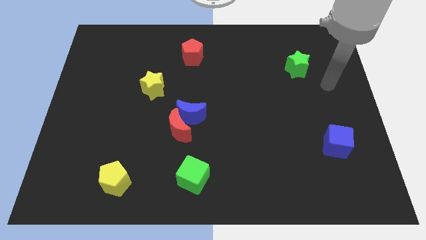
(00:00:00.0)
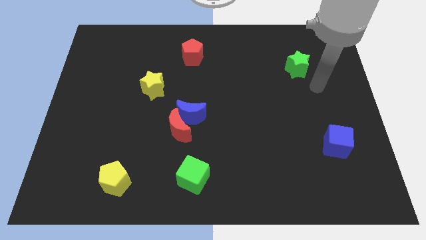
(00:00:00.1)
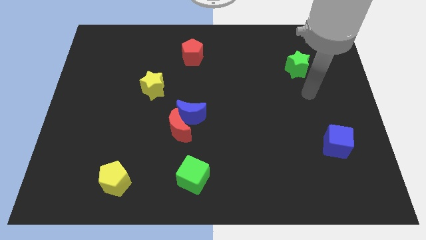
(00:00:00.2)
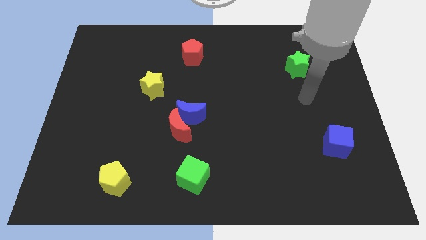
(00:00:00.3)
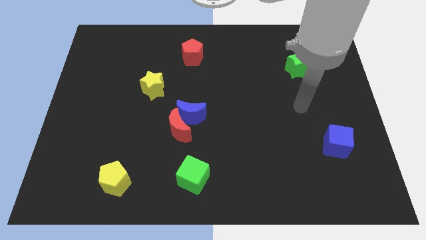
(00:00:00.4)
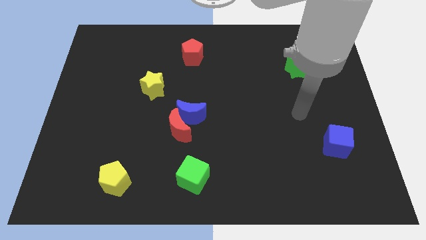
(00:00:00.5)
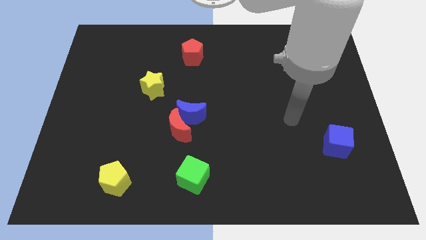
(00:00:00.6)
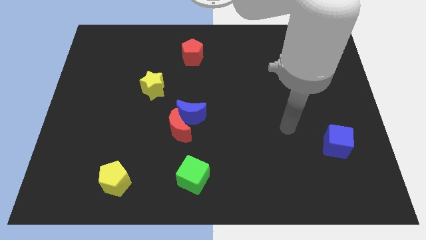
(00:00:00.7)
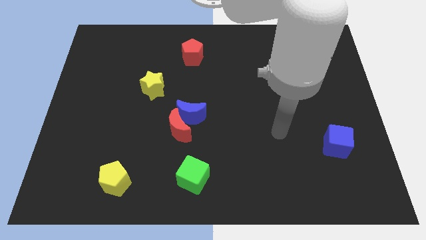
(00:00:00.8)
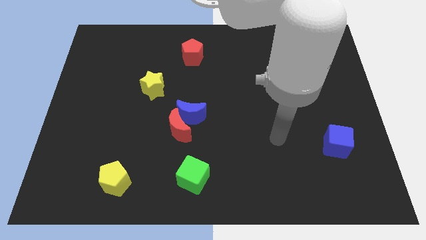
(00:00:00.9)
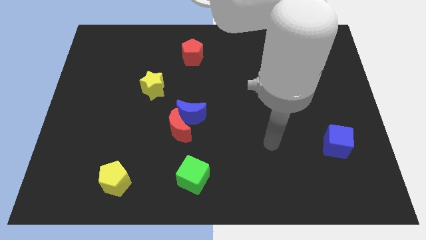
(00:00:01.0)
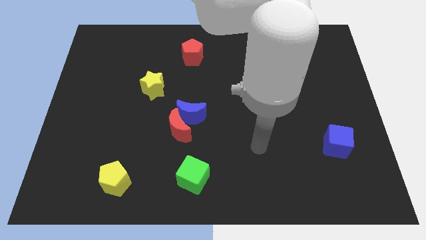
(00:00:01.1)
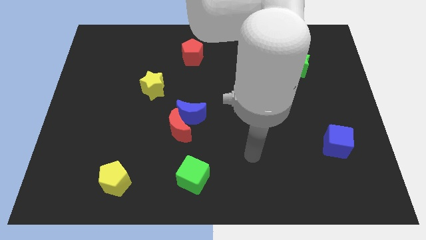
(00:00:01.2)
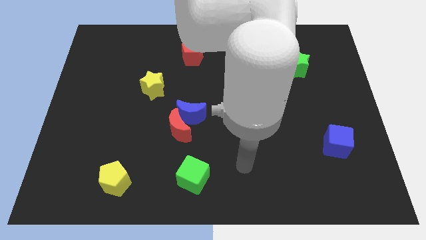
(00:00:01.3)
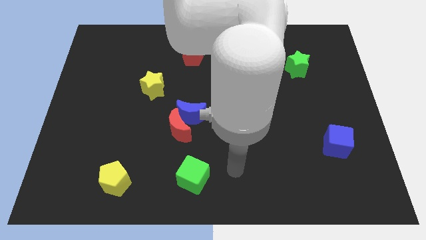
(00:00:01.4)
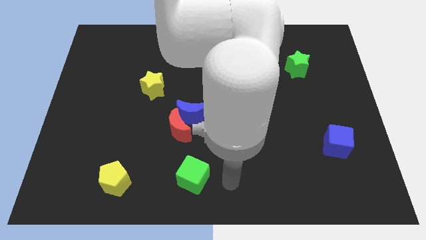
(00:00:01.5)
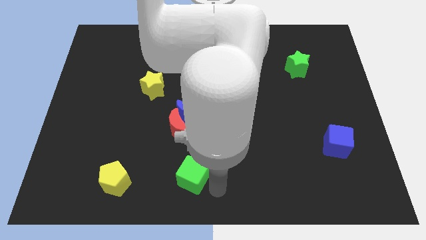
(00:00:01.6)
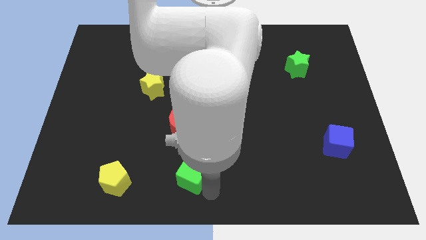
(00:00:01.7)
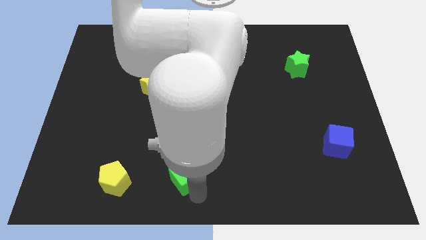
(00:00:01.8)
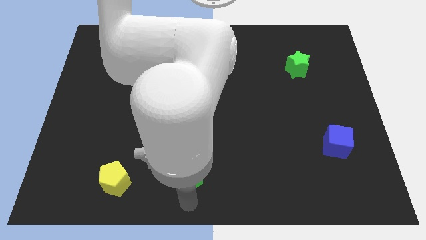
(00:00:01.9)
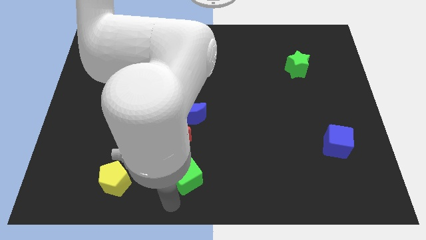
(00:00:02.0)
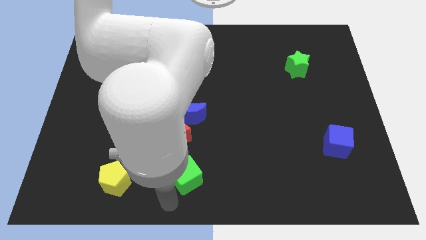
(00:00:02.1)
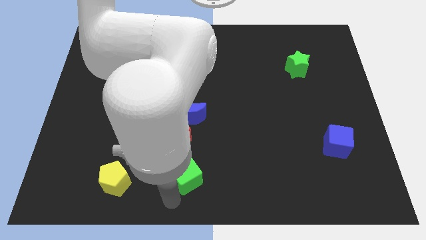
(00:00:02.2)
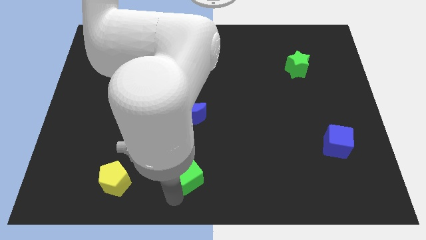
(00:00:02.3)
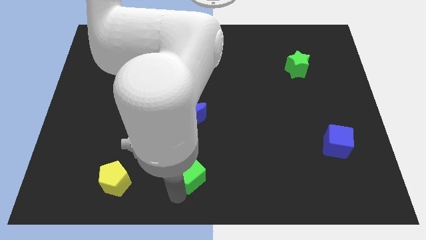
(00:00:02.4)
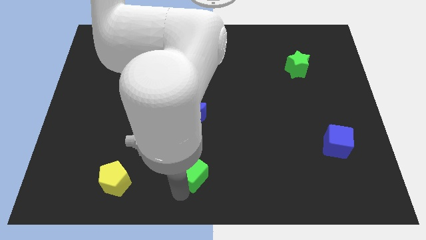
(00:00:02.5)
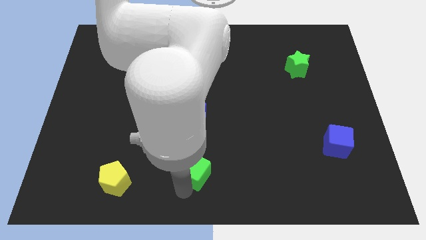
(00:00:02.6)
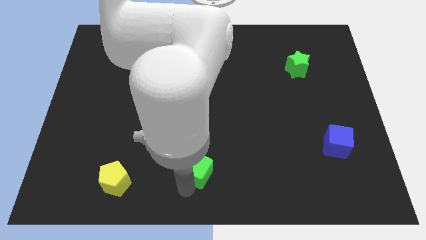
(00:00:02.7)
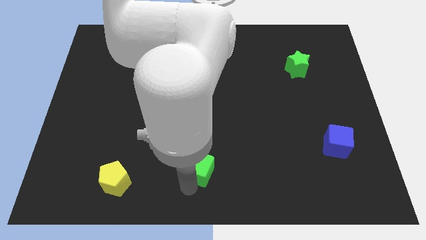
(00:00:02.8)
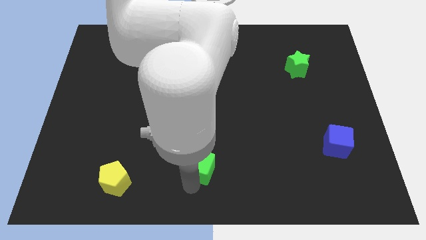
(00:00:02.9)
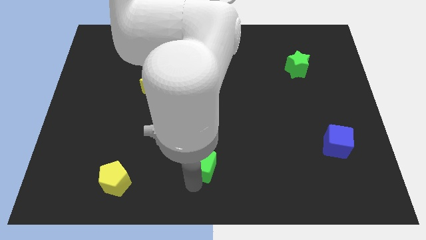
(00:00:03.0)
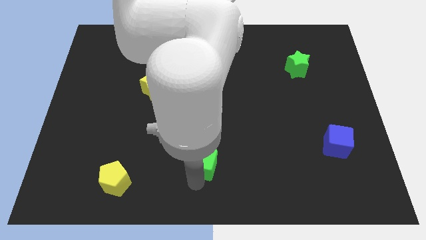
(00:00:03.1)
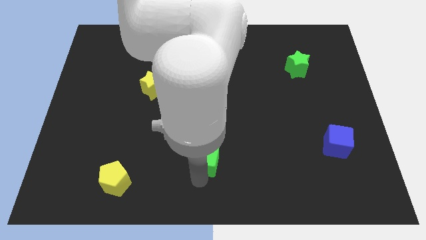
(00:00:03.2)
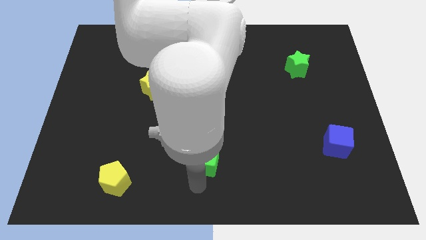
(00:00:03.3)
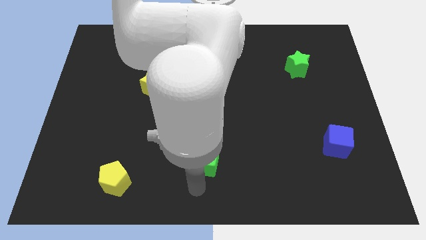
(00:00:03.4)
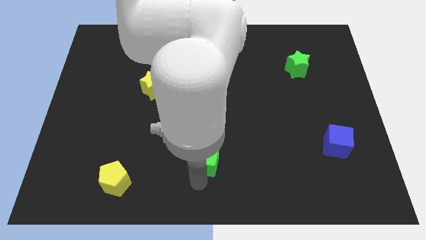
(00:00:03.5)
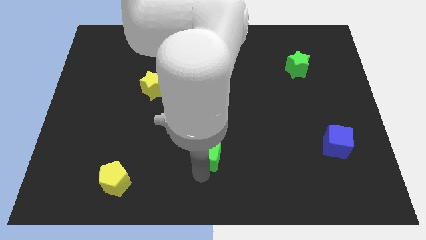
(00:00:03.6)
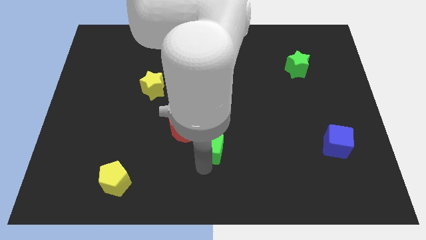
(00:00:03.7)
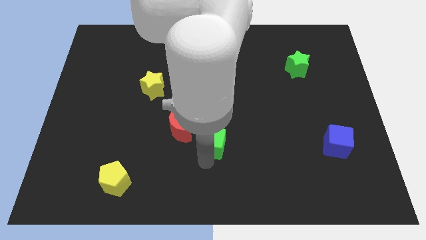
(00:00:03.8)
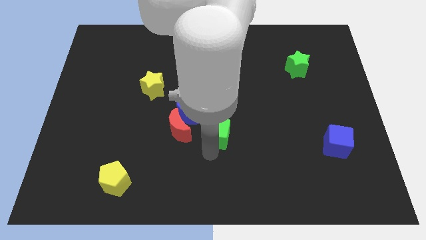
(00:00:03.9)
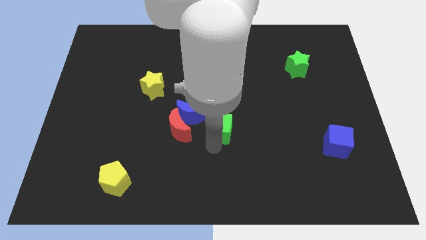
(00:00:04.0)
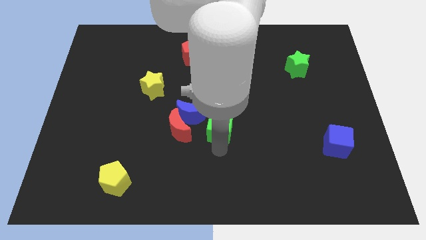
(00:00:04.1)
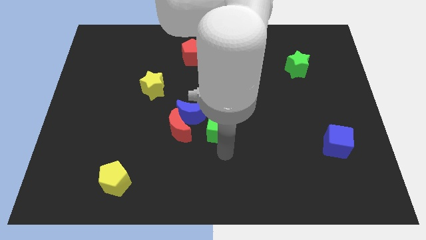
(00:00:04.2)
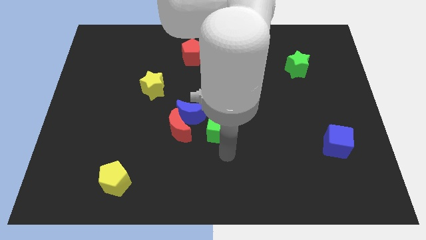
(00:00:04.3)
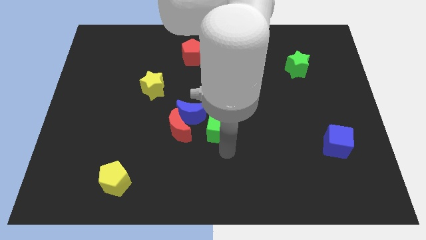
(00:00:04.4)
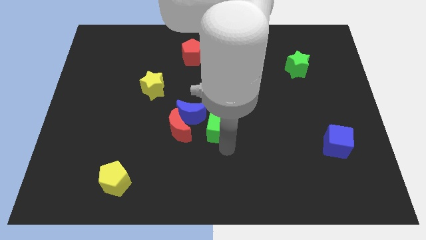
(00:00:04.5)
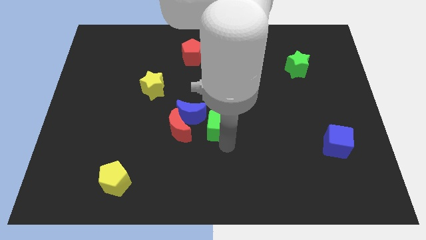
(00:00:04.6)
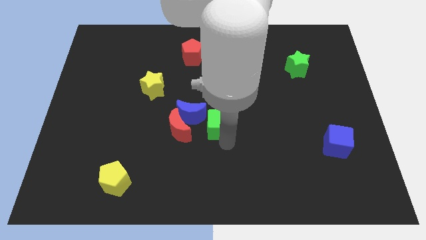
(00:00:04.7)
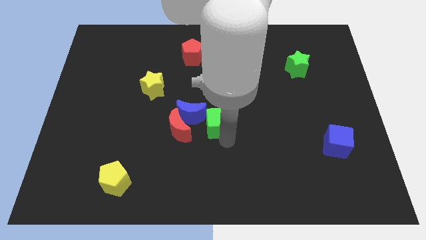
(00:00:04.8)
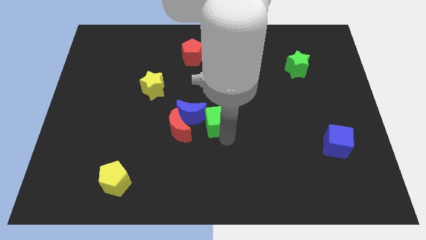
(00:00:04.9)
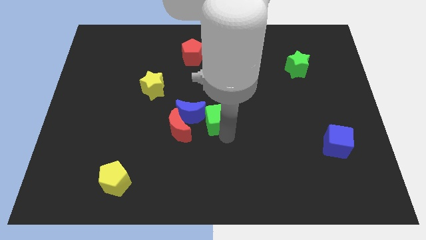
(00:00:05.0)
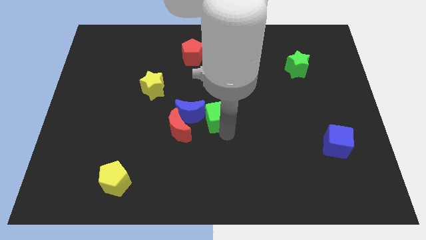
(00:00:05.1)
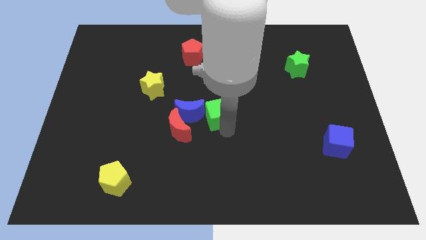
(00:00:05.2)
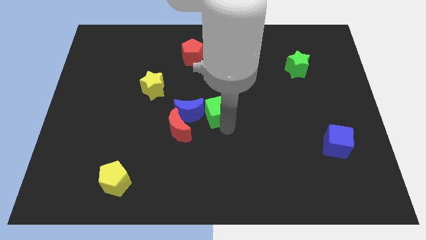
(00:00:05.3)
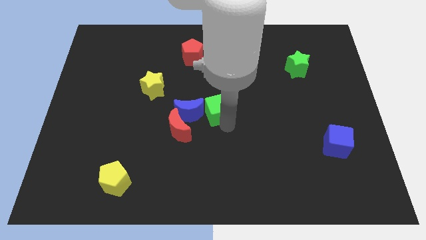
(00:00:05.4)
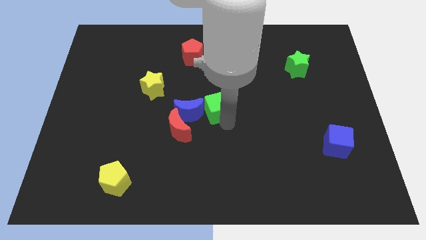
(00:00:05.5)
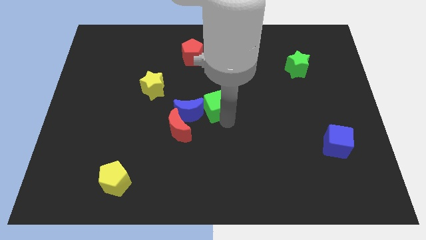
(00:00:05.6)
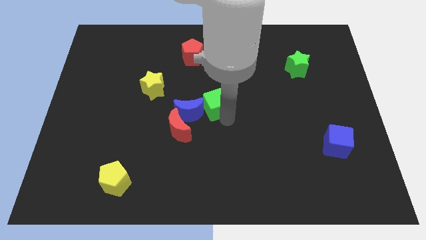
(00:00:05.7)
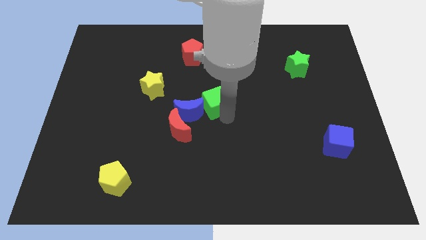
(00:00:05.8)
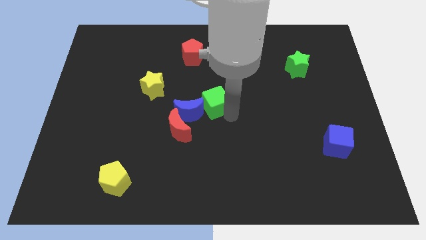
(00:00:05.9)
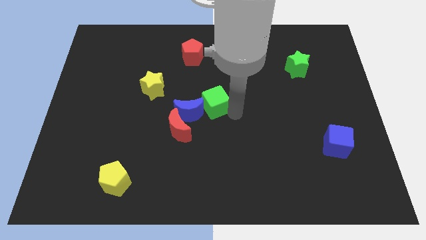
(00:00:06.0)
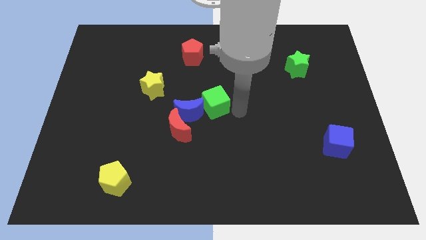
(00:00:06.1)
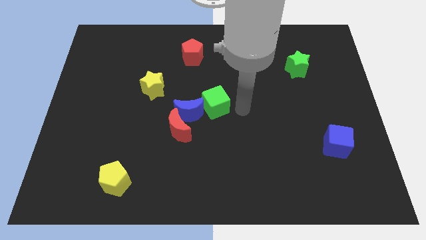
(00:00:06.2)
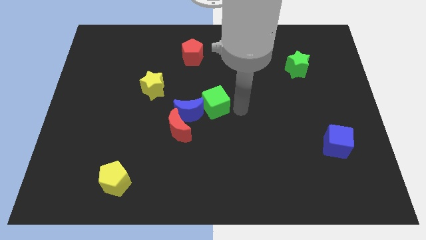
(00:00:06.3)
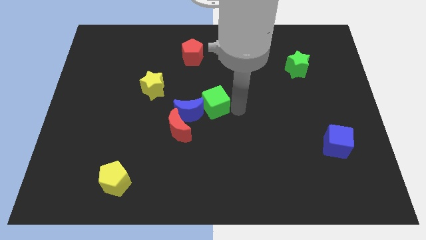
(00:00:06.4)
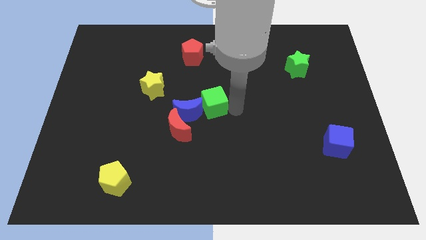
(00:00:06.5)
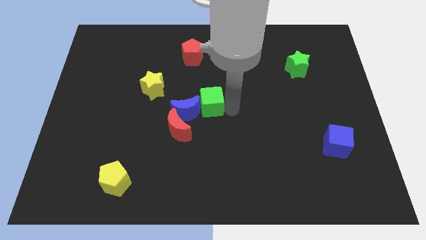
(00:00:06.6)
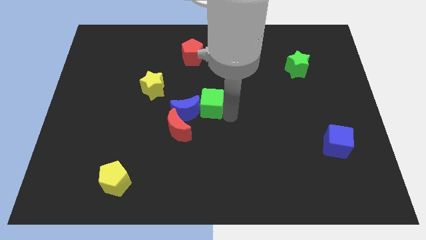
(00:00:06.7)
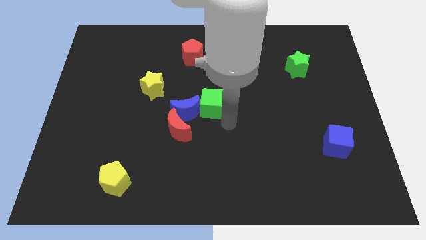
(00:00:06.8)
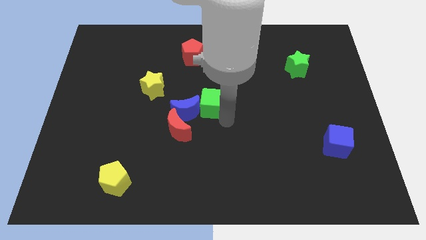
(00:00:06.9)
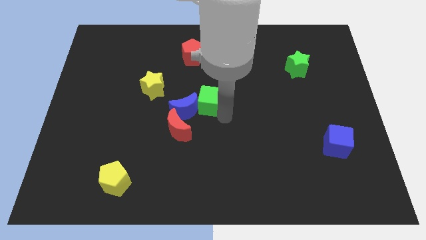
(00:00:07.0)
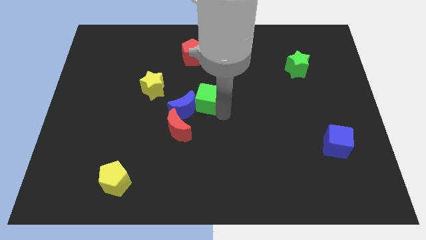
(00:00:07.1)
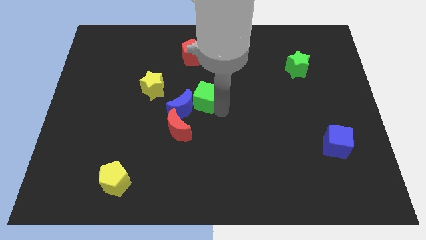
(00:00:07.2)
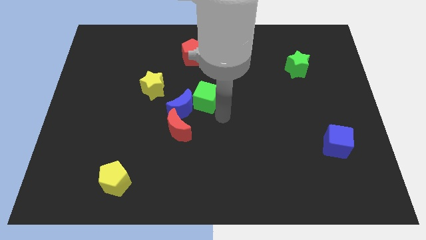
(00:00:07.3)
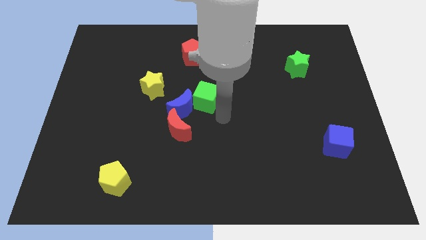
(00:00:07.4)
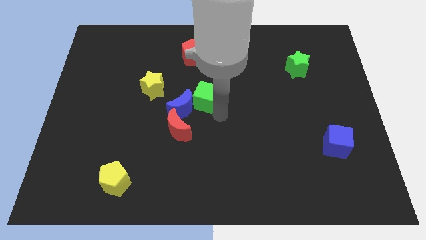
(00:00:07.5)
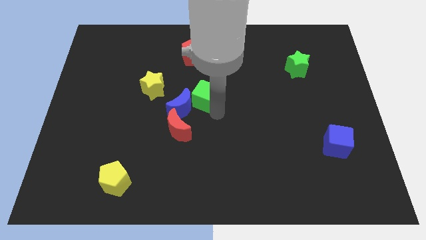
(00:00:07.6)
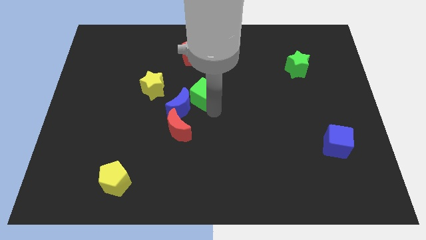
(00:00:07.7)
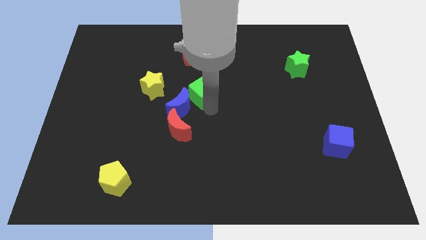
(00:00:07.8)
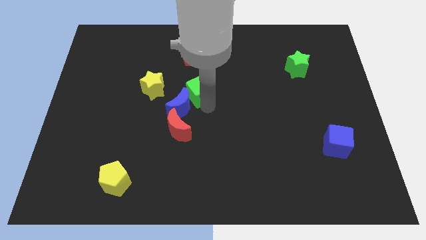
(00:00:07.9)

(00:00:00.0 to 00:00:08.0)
put the green cube above the blue moon
